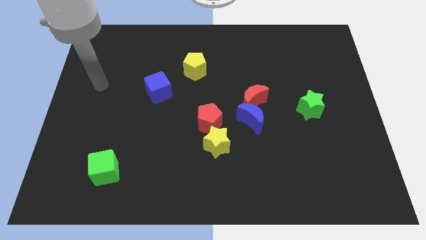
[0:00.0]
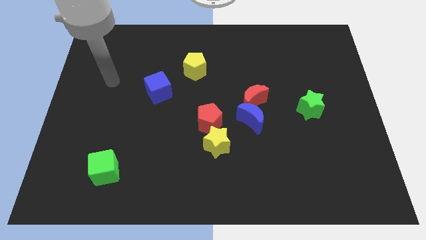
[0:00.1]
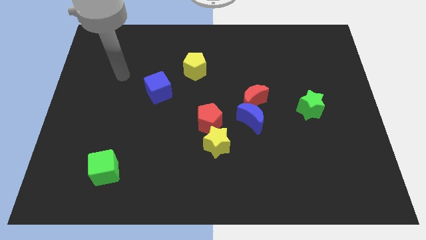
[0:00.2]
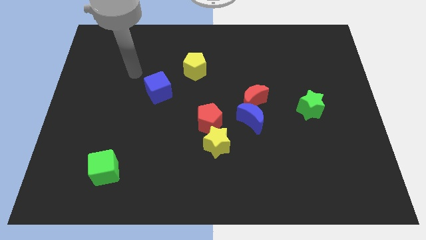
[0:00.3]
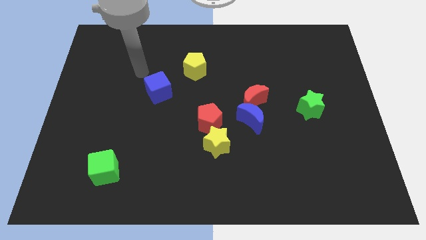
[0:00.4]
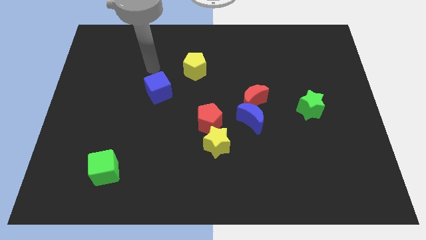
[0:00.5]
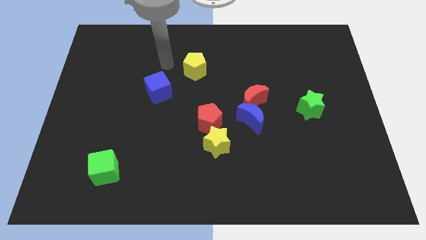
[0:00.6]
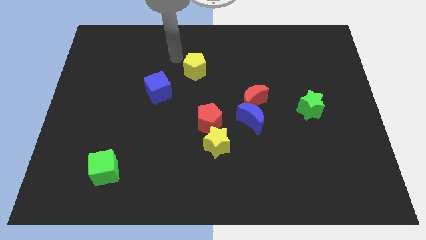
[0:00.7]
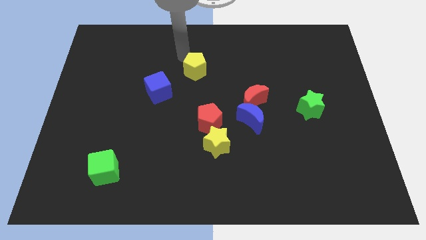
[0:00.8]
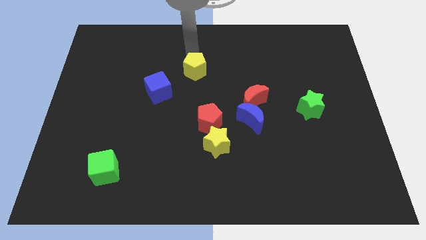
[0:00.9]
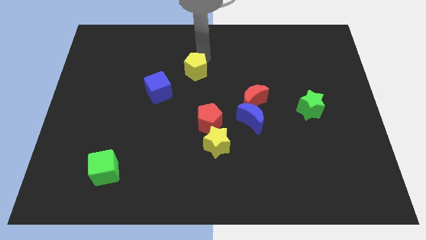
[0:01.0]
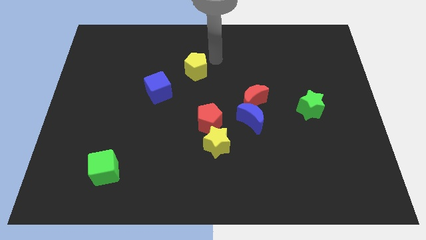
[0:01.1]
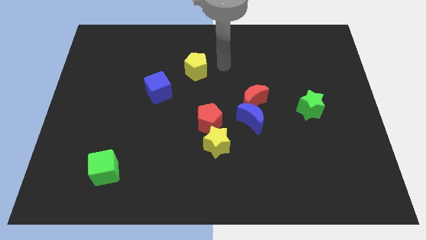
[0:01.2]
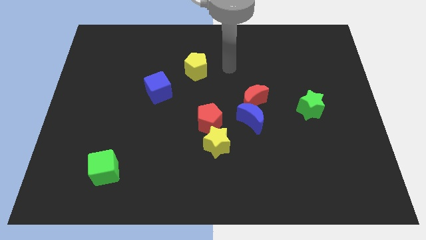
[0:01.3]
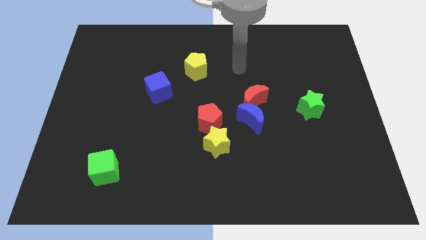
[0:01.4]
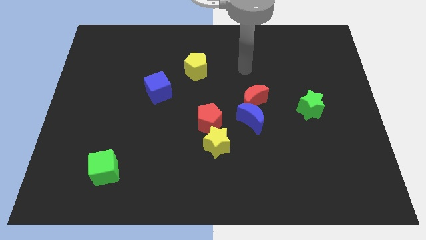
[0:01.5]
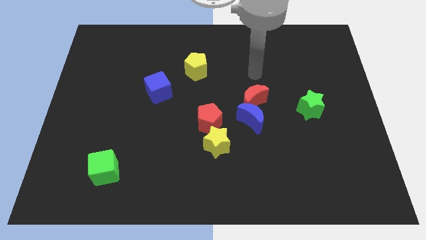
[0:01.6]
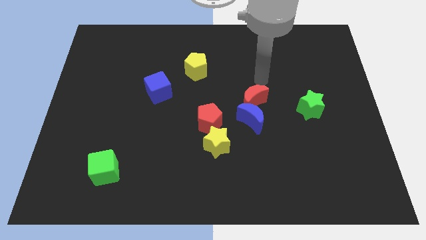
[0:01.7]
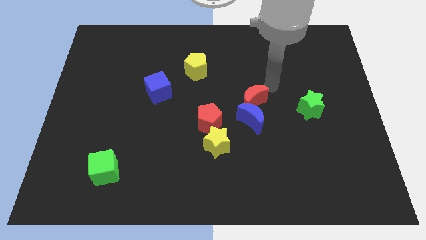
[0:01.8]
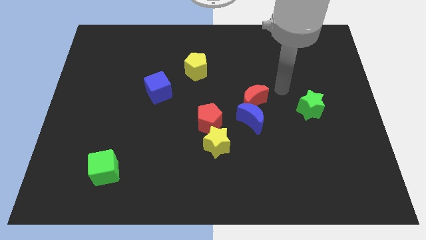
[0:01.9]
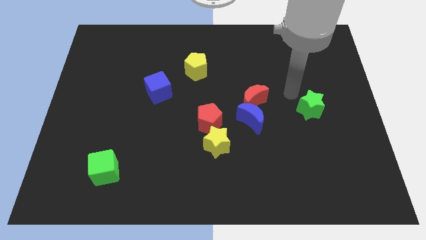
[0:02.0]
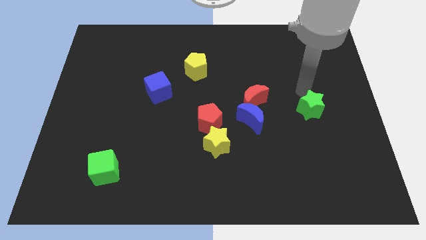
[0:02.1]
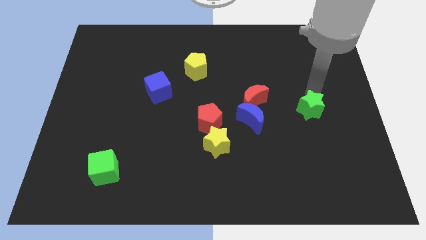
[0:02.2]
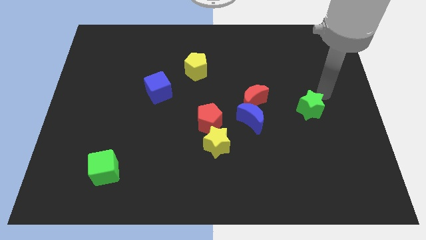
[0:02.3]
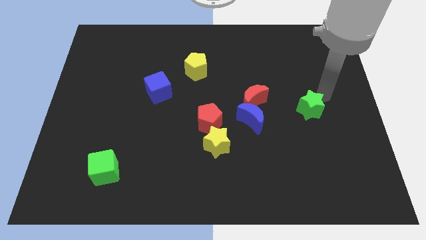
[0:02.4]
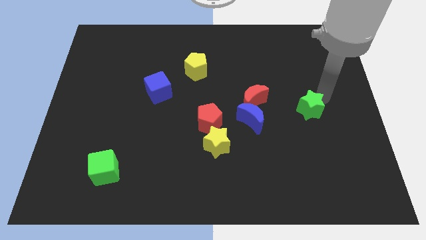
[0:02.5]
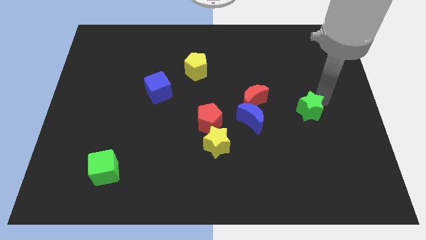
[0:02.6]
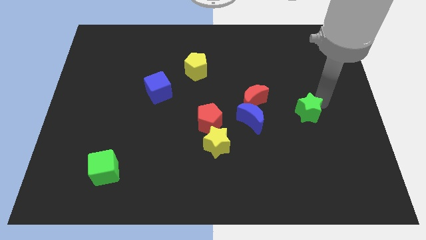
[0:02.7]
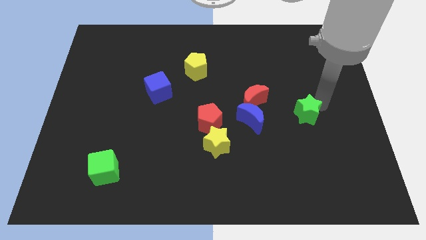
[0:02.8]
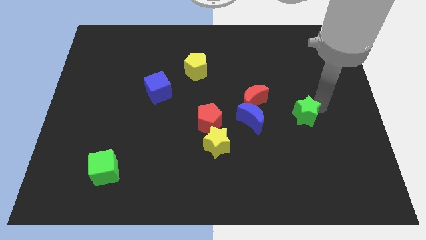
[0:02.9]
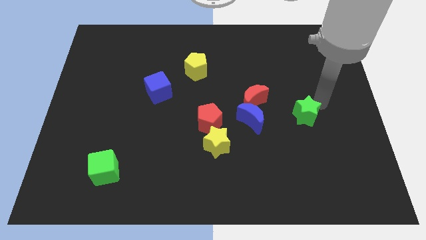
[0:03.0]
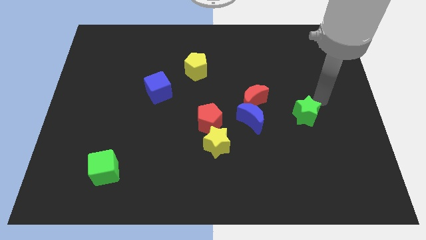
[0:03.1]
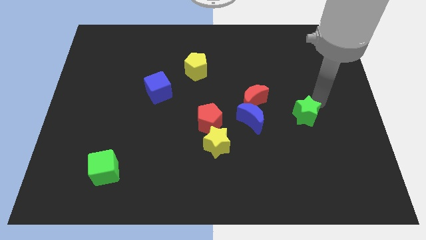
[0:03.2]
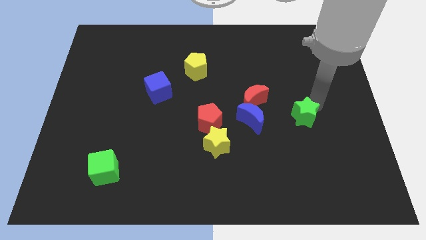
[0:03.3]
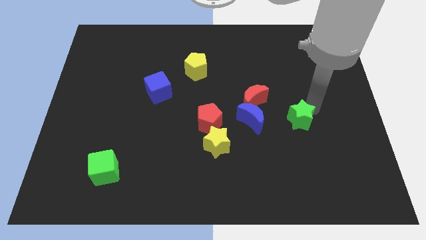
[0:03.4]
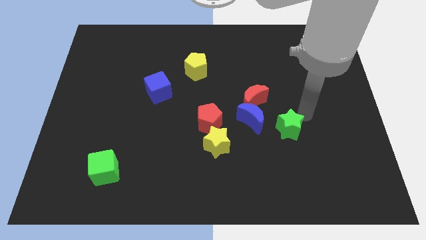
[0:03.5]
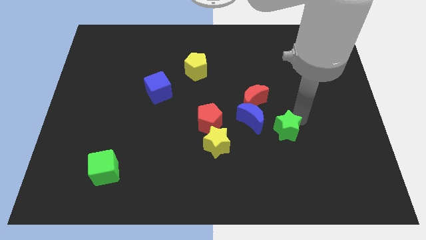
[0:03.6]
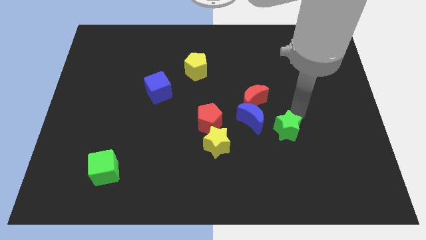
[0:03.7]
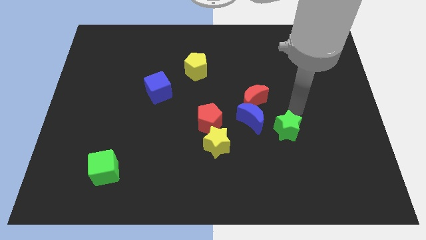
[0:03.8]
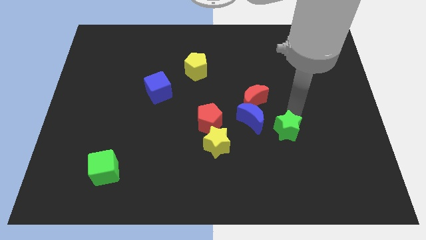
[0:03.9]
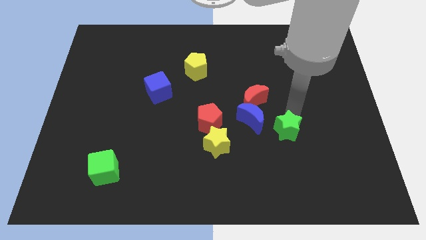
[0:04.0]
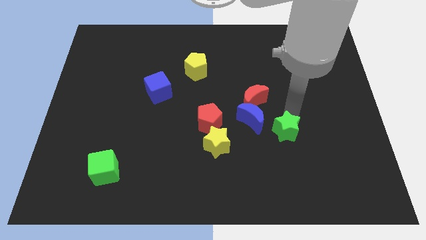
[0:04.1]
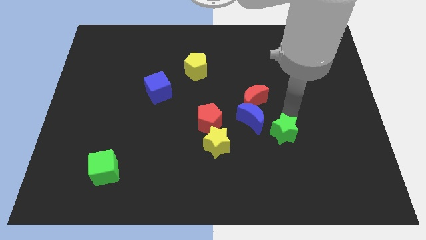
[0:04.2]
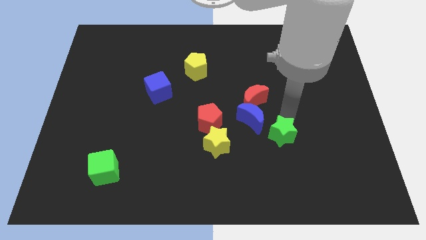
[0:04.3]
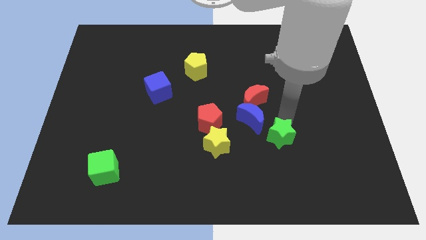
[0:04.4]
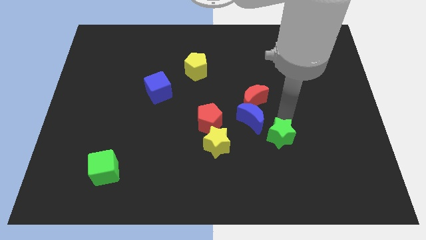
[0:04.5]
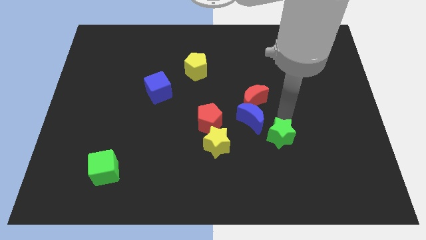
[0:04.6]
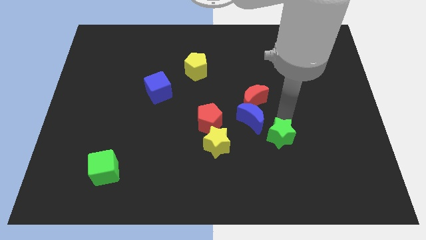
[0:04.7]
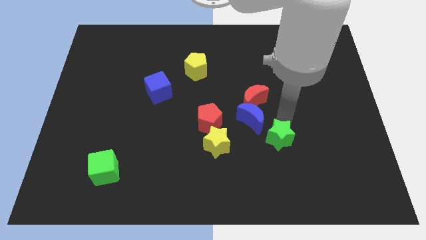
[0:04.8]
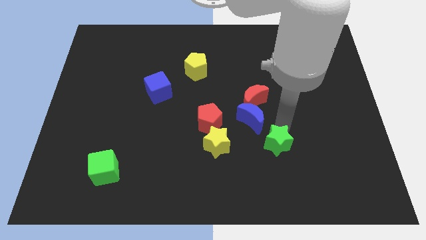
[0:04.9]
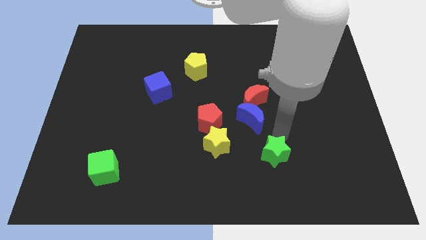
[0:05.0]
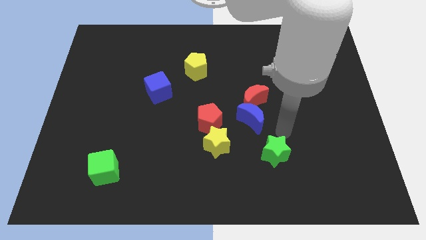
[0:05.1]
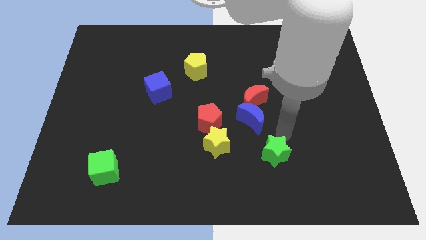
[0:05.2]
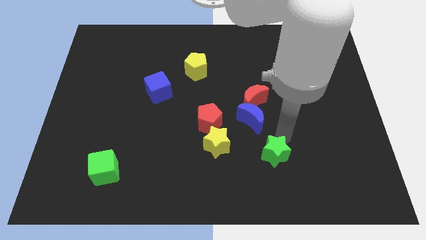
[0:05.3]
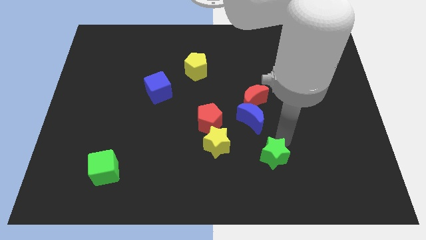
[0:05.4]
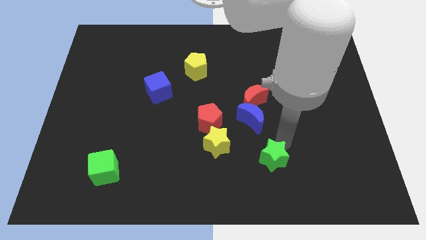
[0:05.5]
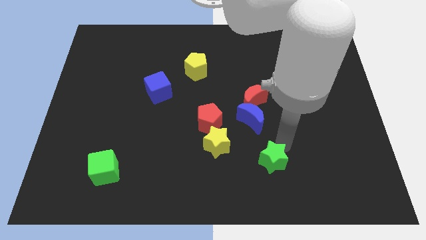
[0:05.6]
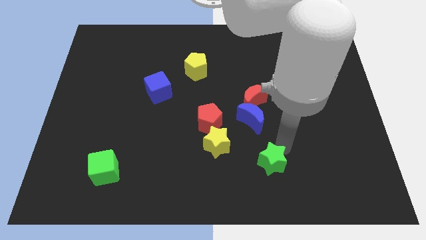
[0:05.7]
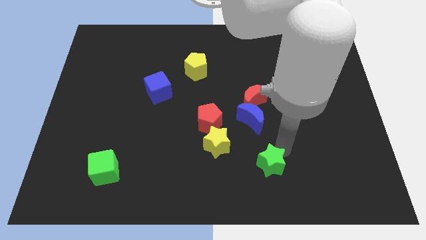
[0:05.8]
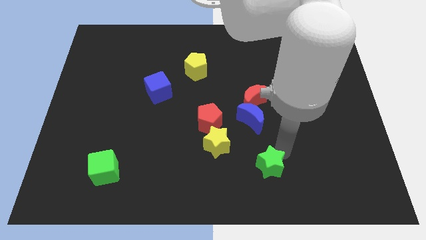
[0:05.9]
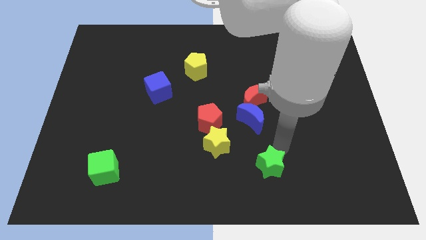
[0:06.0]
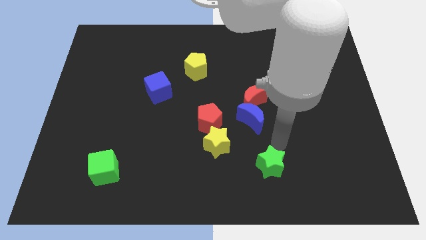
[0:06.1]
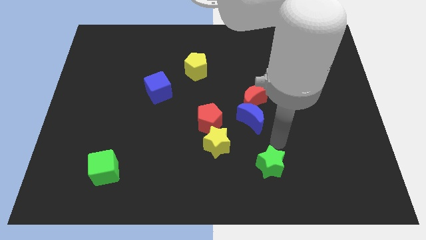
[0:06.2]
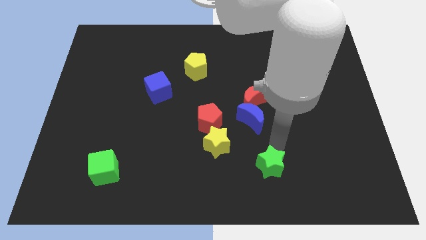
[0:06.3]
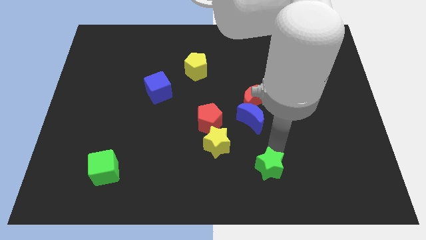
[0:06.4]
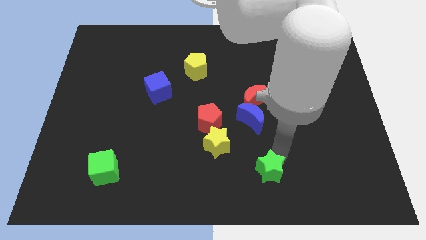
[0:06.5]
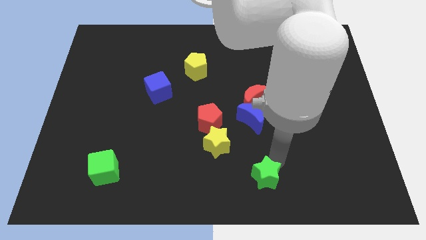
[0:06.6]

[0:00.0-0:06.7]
move the green star to the bottom
